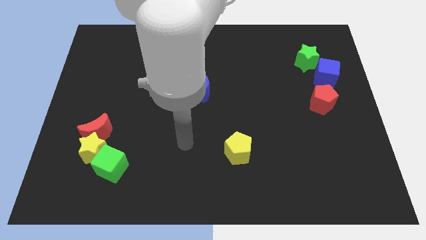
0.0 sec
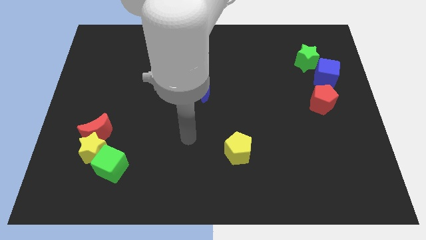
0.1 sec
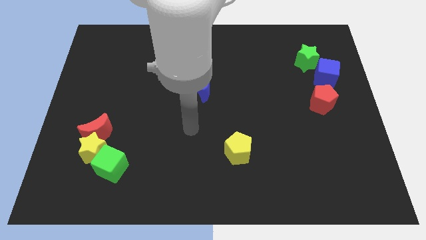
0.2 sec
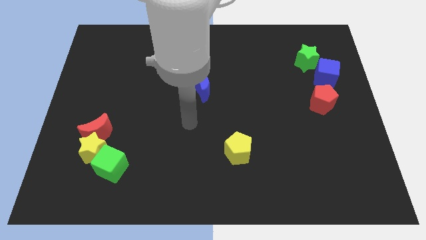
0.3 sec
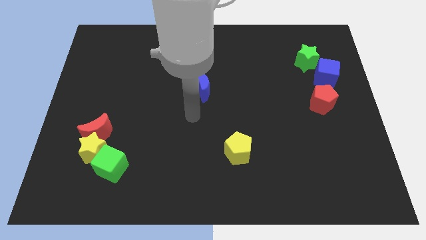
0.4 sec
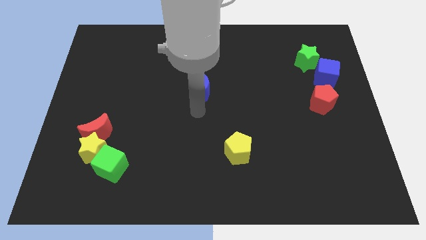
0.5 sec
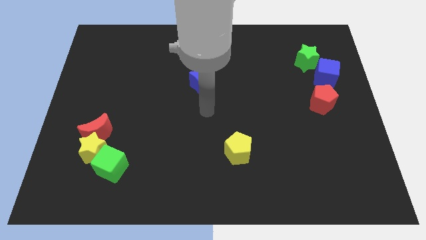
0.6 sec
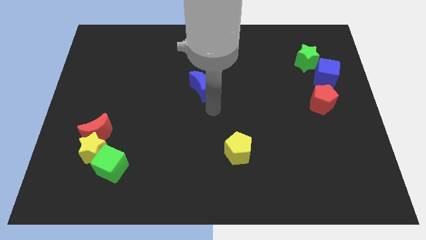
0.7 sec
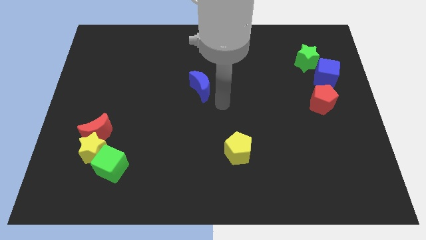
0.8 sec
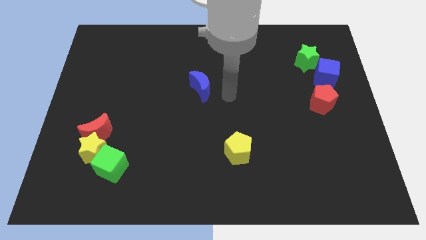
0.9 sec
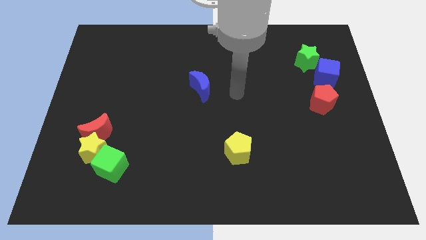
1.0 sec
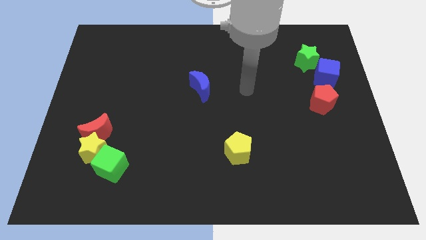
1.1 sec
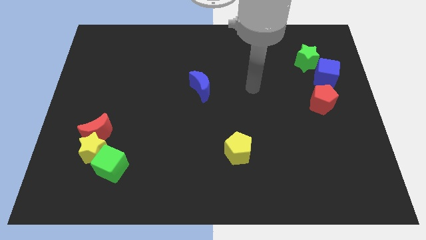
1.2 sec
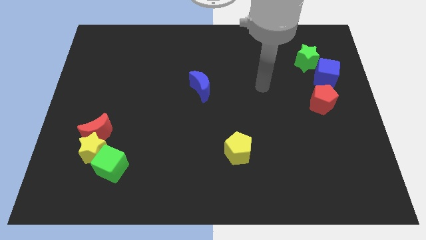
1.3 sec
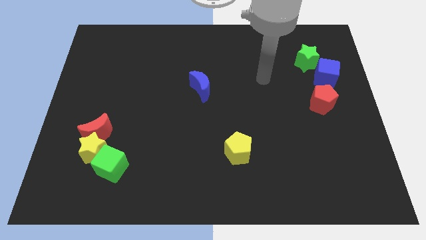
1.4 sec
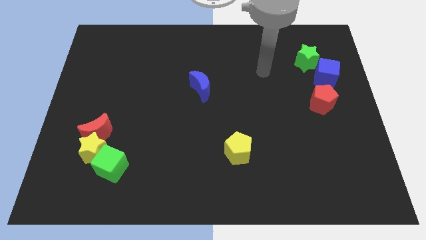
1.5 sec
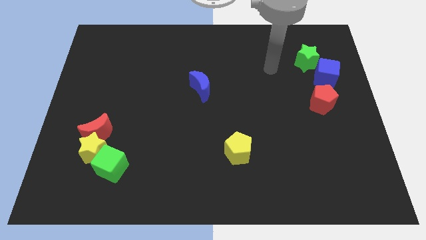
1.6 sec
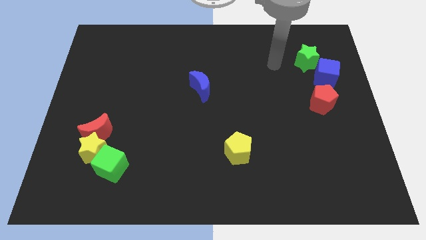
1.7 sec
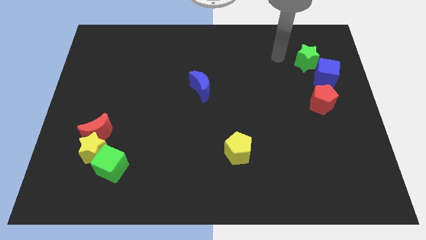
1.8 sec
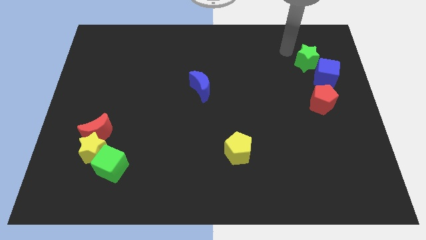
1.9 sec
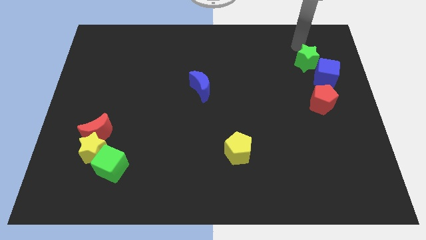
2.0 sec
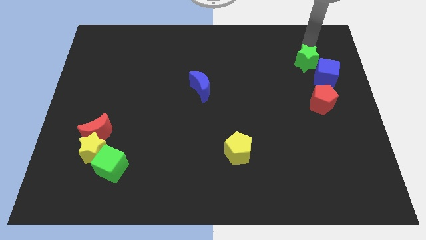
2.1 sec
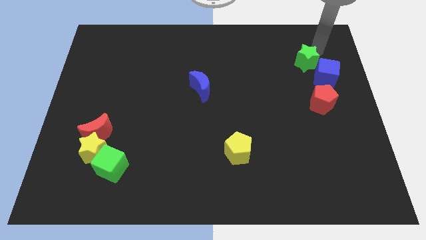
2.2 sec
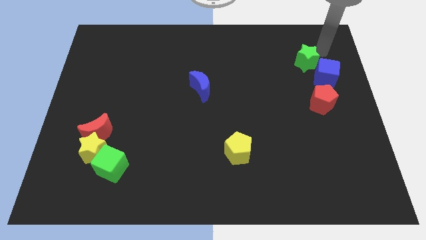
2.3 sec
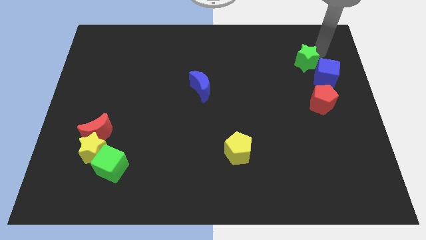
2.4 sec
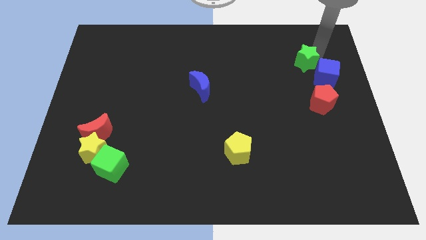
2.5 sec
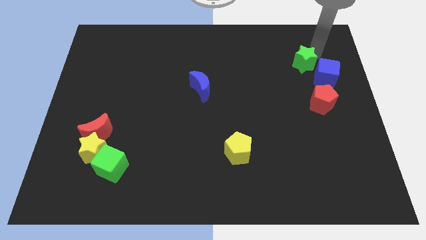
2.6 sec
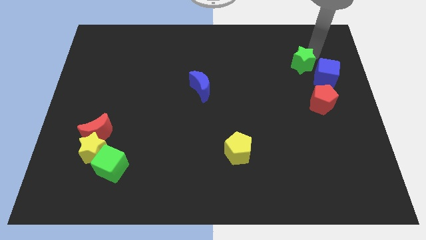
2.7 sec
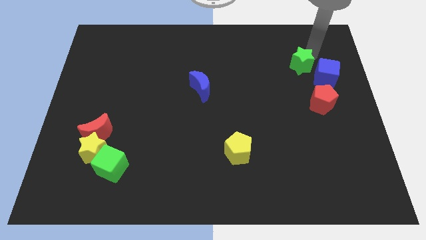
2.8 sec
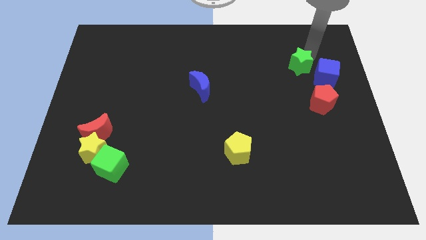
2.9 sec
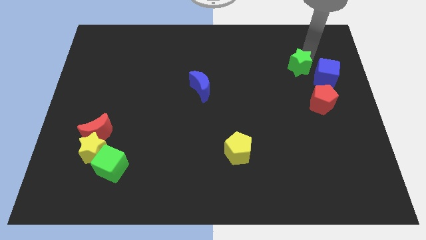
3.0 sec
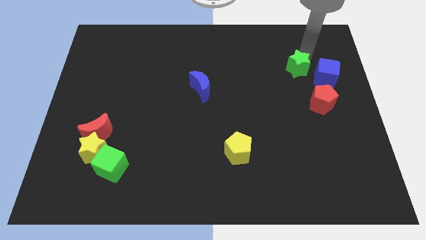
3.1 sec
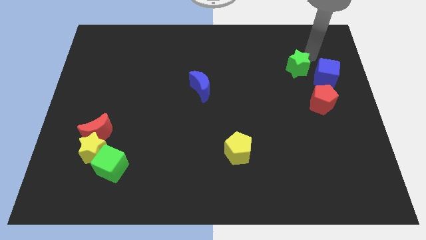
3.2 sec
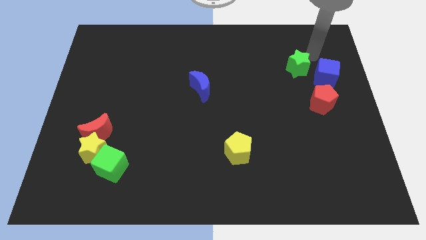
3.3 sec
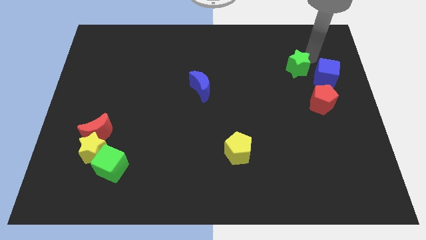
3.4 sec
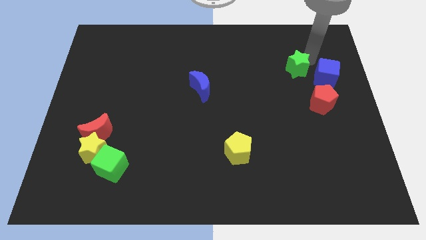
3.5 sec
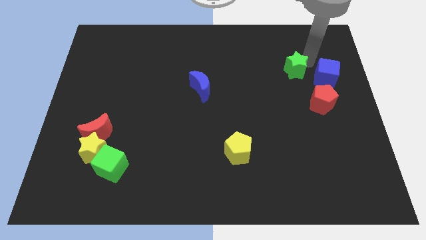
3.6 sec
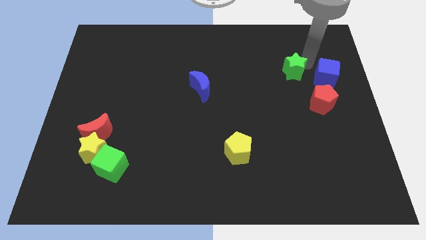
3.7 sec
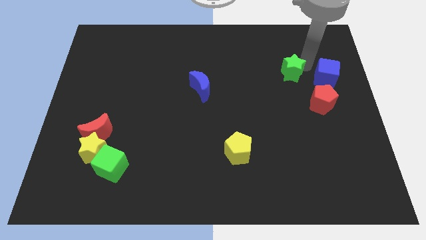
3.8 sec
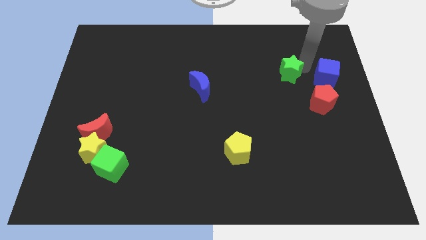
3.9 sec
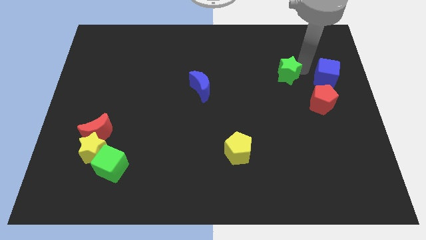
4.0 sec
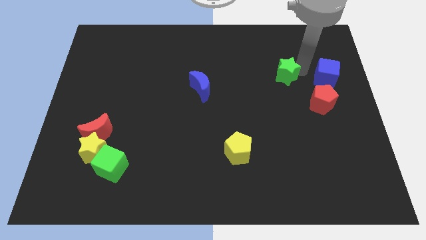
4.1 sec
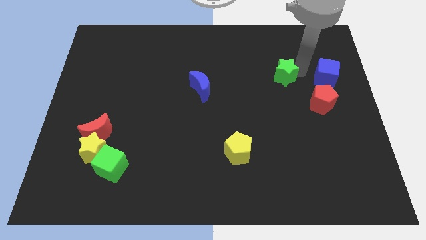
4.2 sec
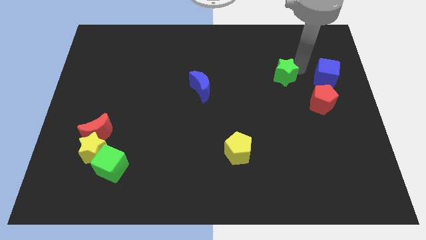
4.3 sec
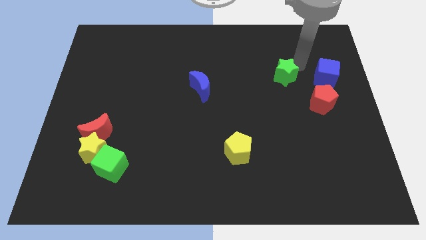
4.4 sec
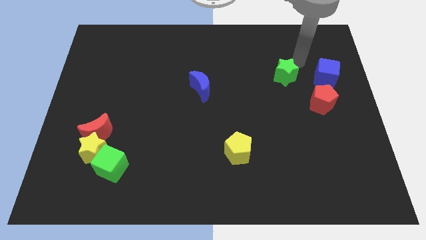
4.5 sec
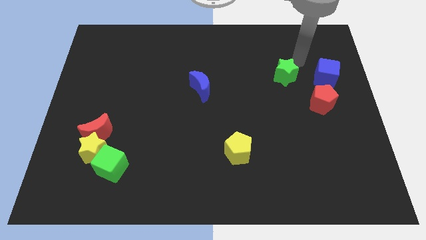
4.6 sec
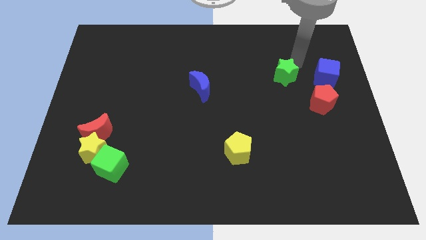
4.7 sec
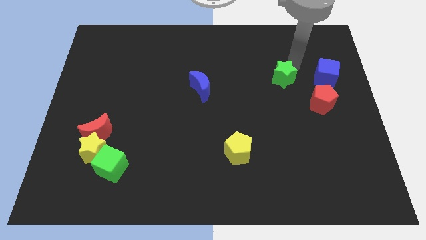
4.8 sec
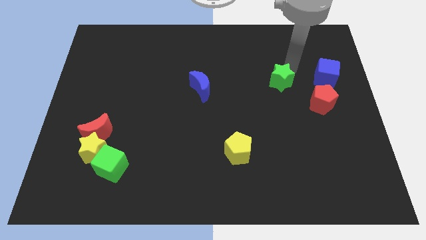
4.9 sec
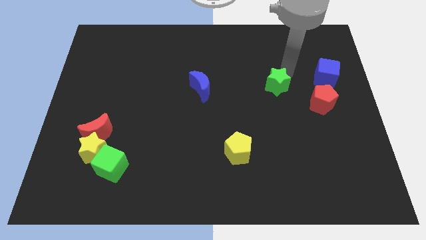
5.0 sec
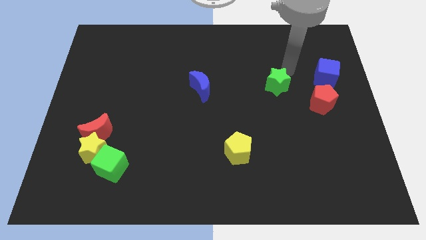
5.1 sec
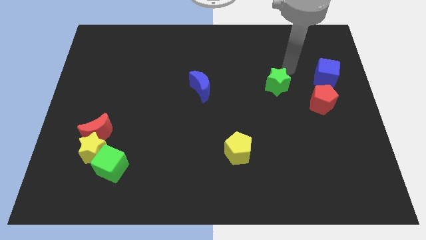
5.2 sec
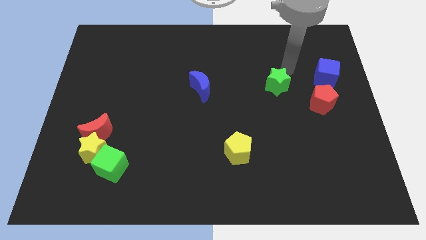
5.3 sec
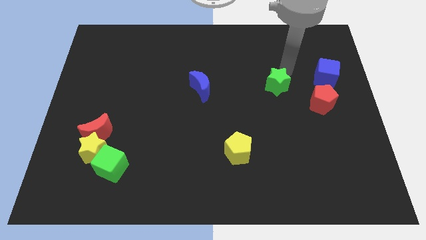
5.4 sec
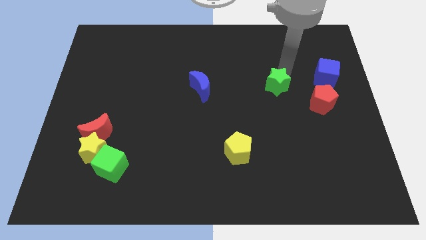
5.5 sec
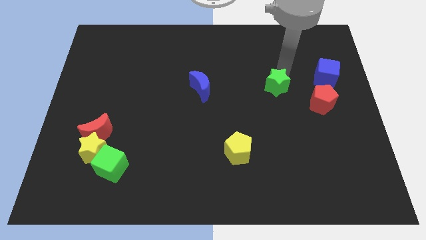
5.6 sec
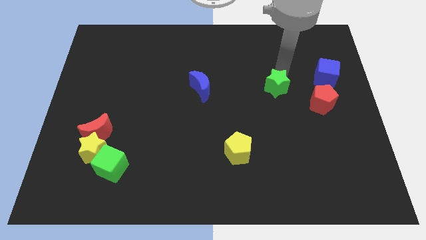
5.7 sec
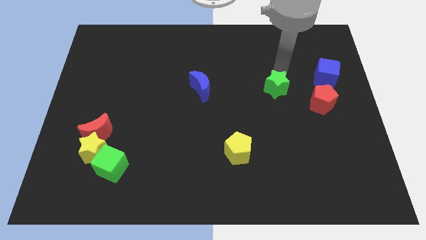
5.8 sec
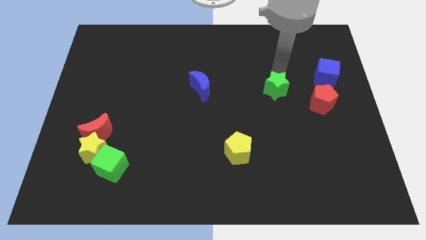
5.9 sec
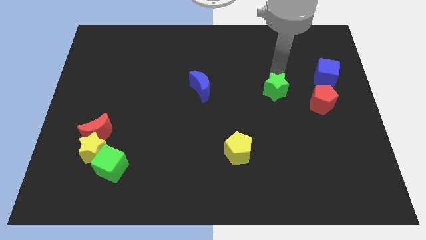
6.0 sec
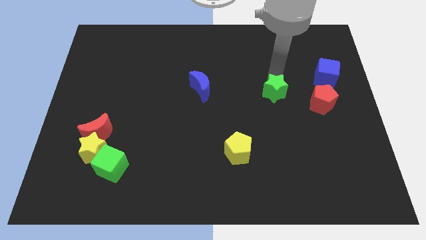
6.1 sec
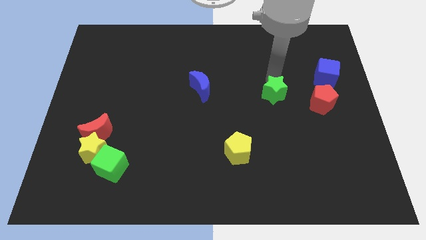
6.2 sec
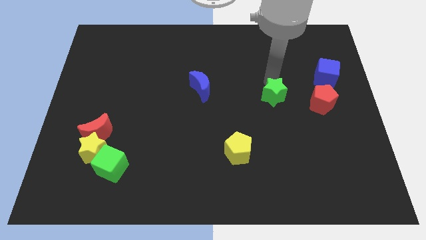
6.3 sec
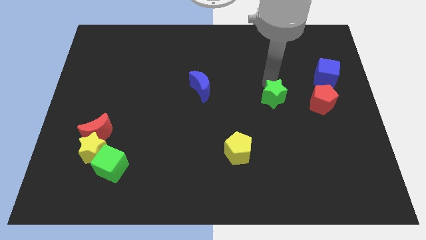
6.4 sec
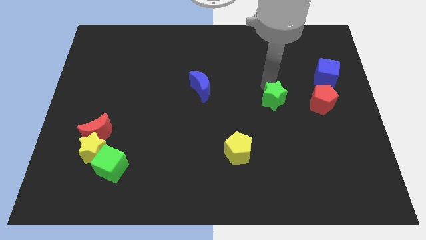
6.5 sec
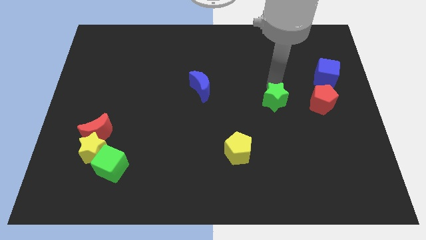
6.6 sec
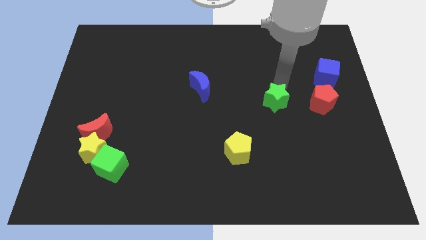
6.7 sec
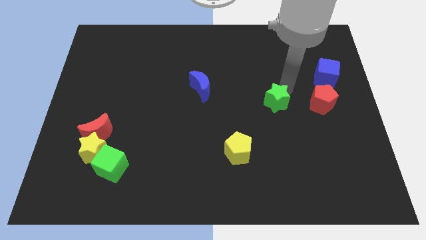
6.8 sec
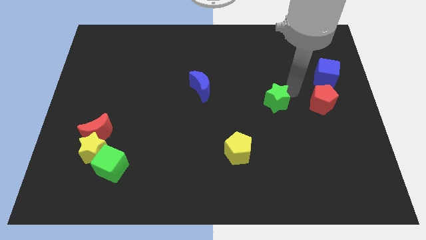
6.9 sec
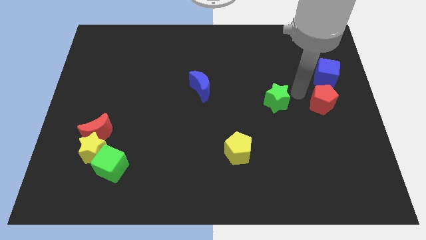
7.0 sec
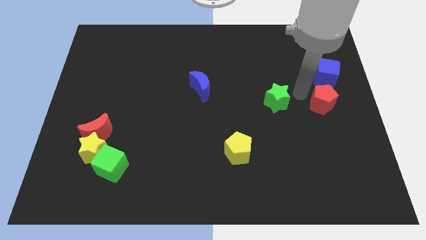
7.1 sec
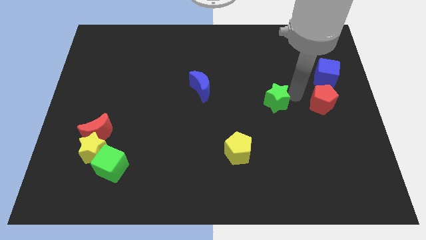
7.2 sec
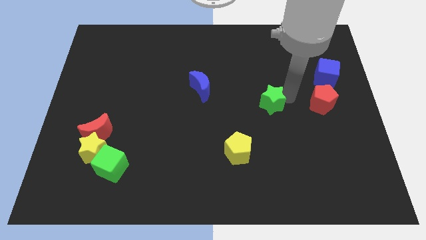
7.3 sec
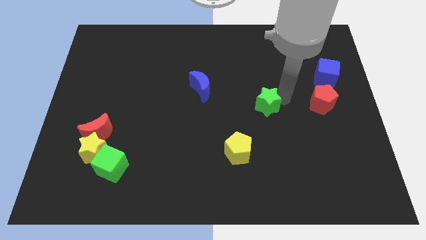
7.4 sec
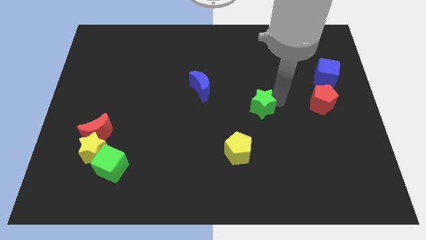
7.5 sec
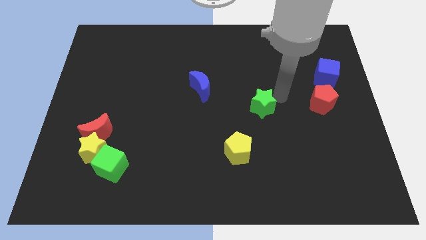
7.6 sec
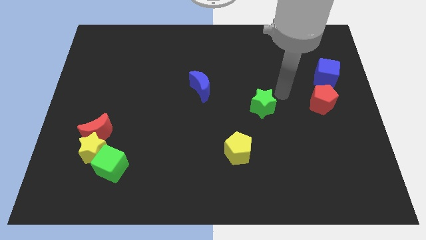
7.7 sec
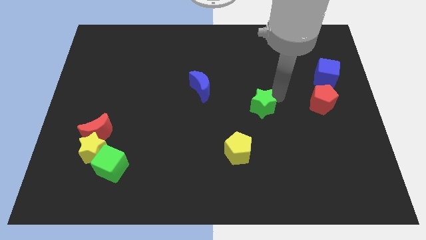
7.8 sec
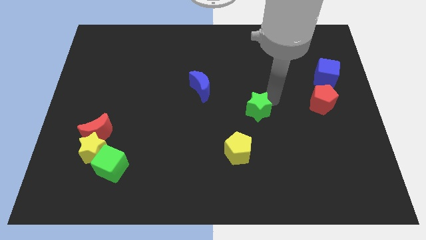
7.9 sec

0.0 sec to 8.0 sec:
move the green star diagonally downwards and to the left

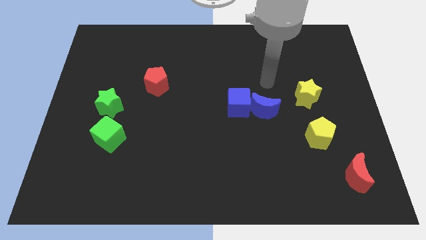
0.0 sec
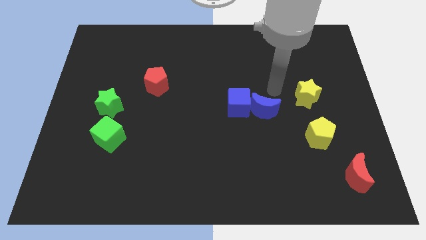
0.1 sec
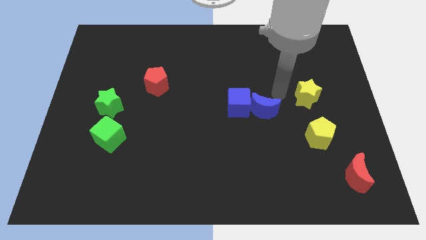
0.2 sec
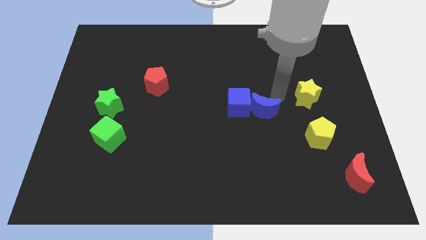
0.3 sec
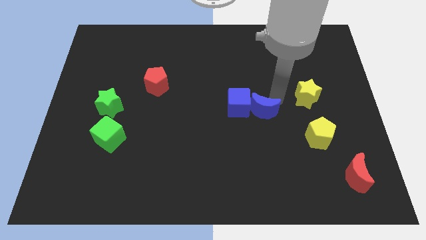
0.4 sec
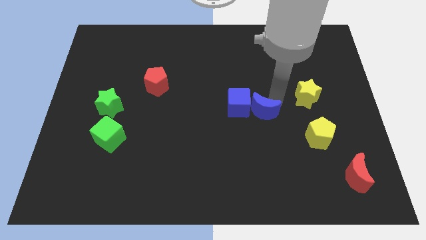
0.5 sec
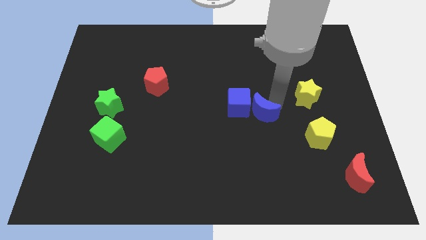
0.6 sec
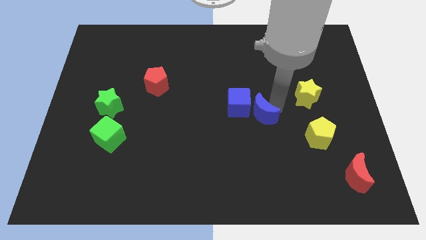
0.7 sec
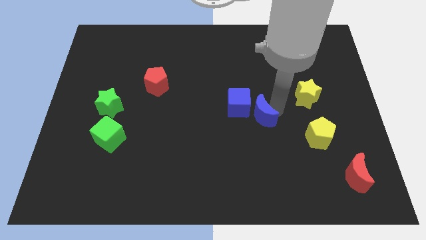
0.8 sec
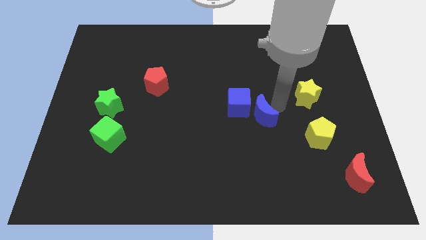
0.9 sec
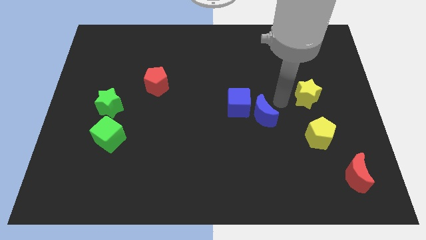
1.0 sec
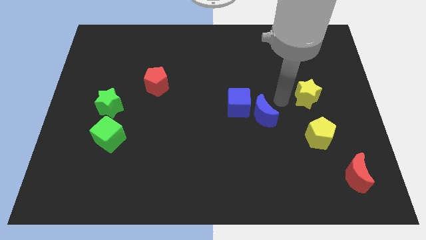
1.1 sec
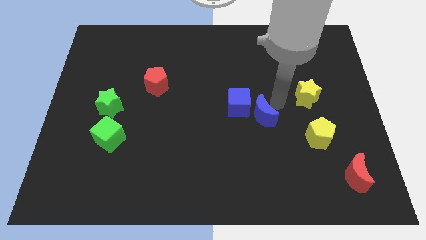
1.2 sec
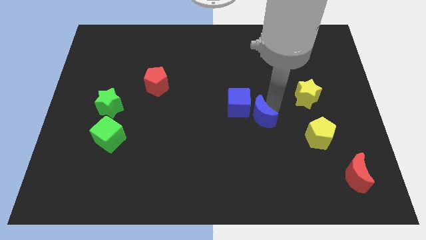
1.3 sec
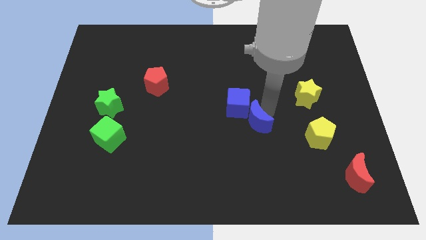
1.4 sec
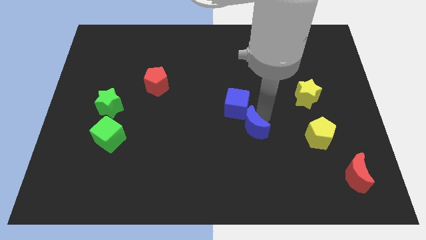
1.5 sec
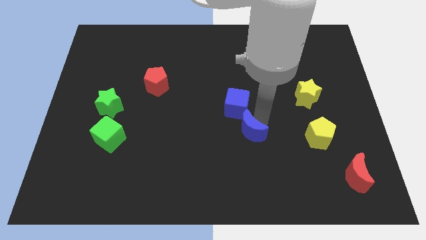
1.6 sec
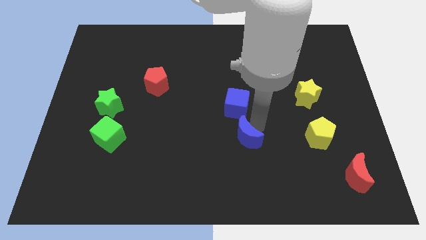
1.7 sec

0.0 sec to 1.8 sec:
slightly slide the blue moon downwards and left
